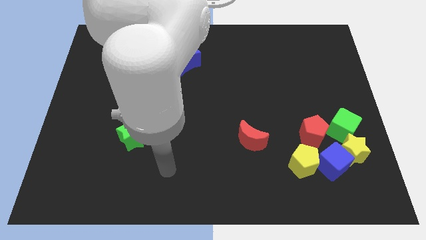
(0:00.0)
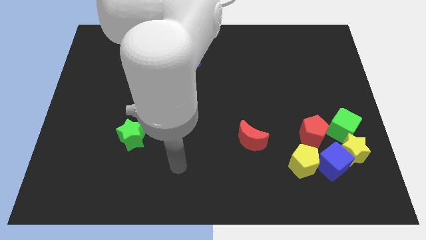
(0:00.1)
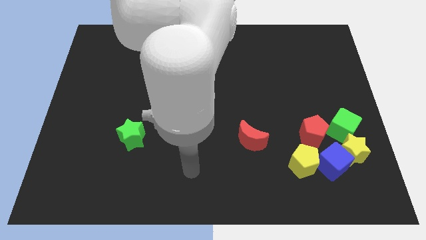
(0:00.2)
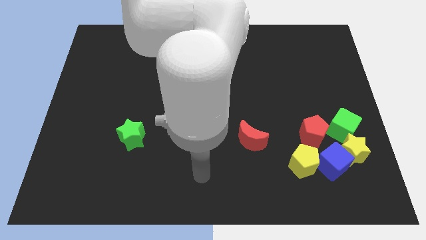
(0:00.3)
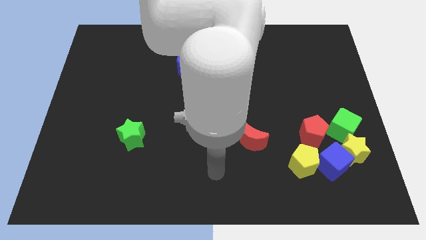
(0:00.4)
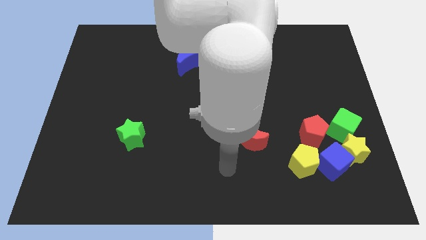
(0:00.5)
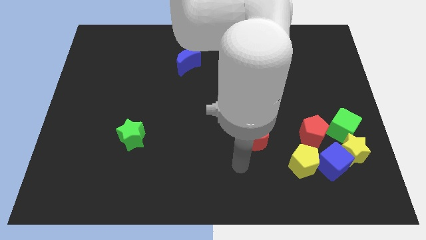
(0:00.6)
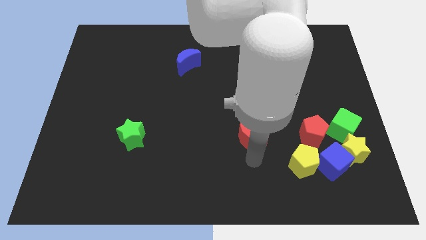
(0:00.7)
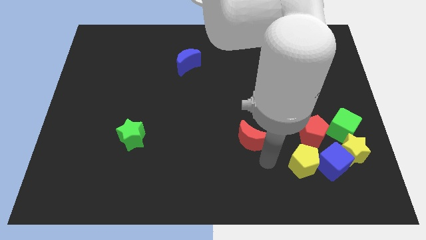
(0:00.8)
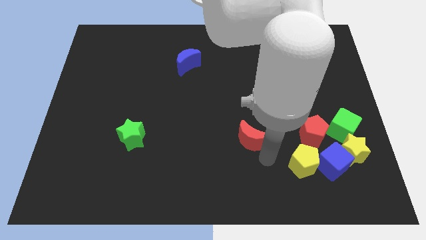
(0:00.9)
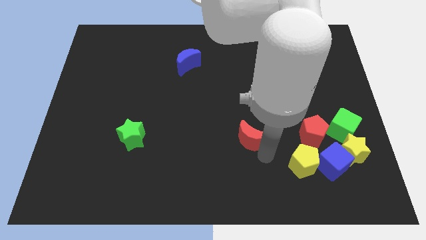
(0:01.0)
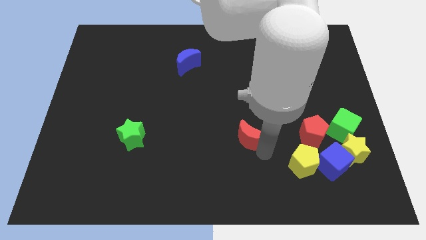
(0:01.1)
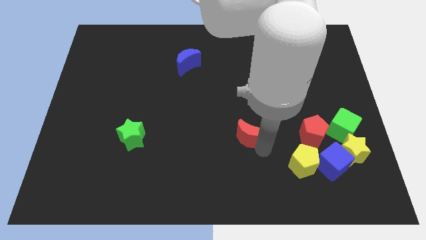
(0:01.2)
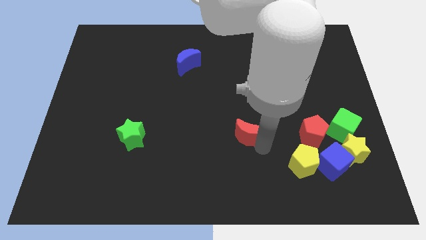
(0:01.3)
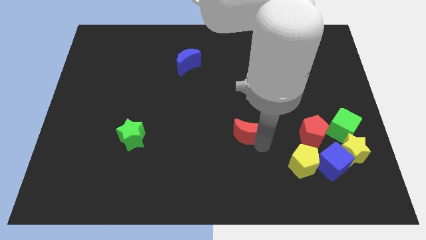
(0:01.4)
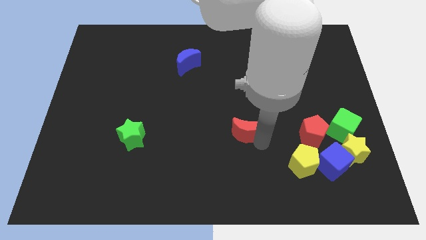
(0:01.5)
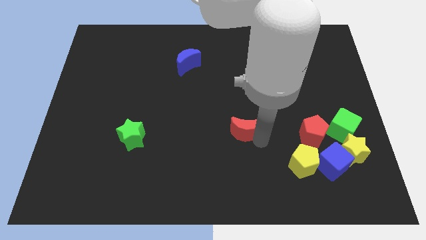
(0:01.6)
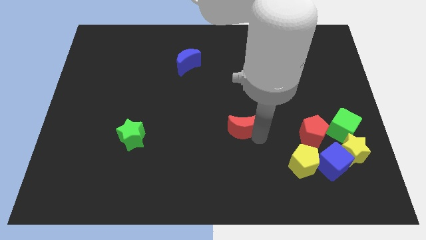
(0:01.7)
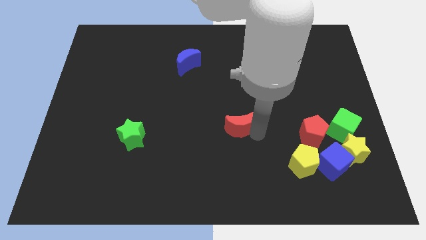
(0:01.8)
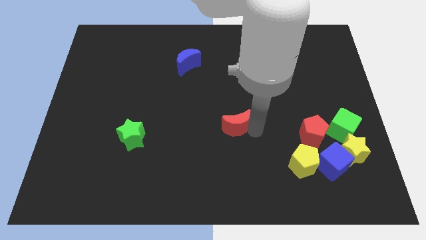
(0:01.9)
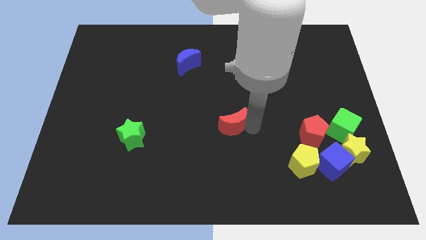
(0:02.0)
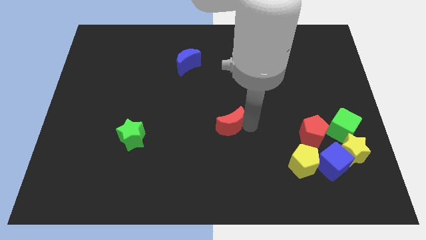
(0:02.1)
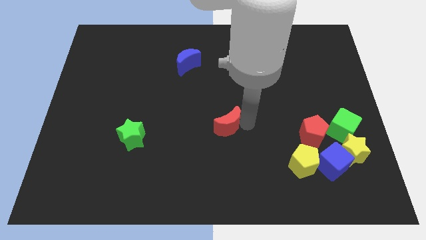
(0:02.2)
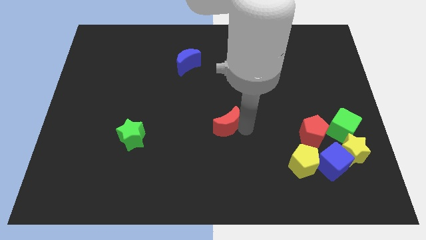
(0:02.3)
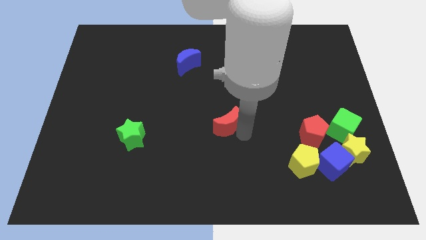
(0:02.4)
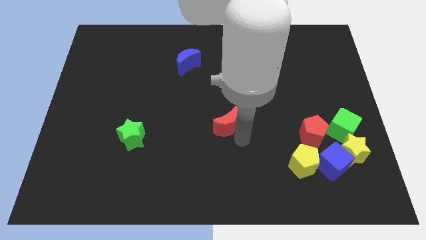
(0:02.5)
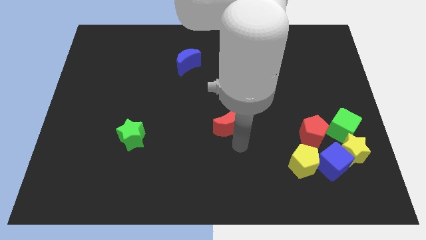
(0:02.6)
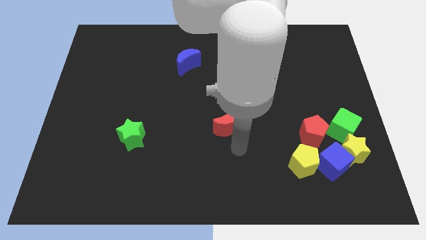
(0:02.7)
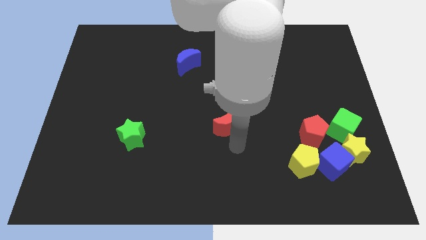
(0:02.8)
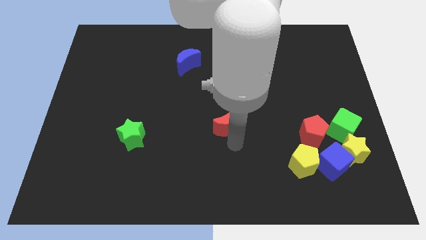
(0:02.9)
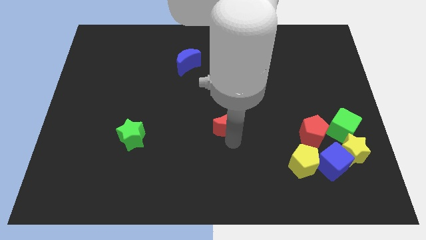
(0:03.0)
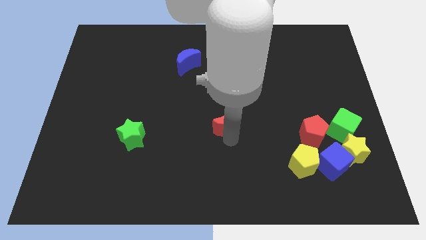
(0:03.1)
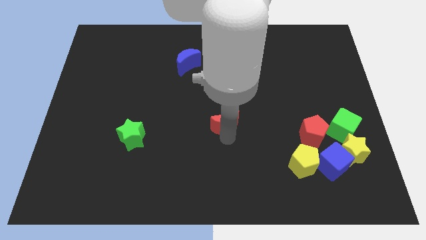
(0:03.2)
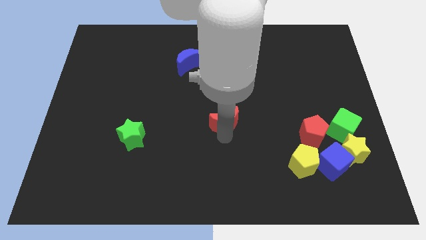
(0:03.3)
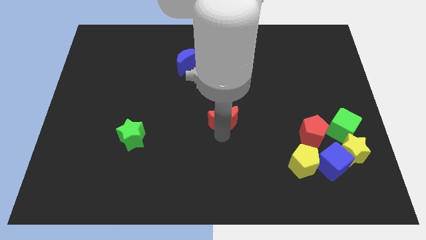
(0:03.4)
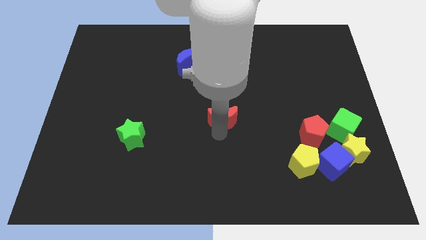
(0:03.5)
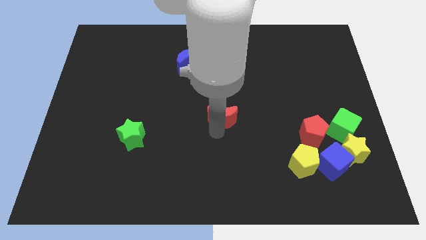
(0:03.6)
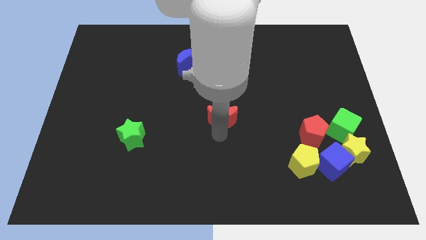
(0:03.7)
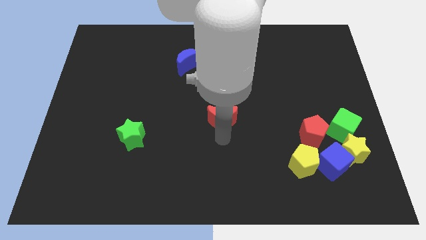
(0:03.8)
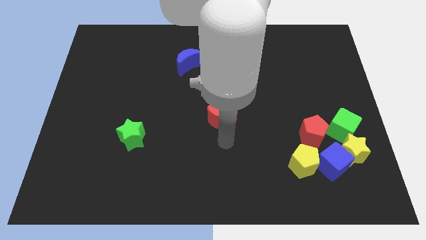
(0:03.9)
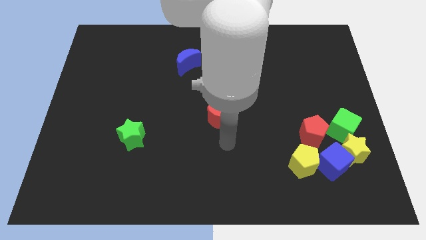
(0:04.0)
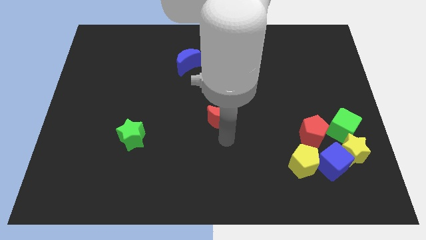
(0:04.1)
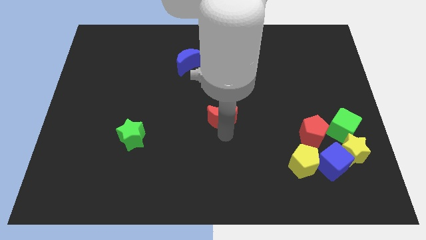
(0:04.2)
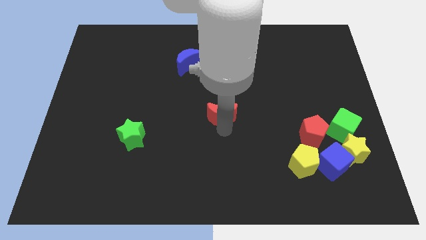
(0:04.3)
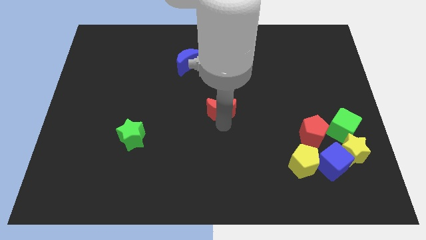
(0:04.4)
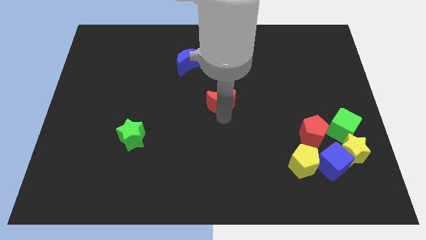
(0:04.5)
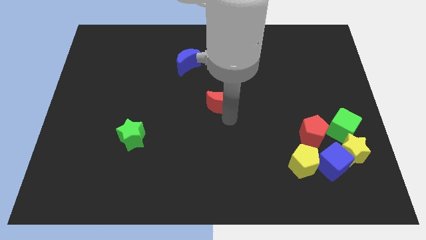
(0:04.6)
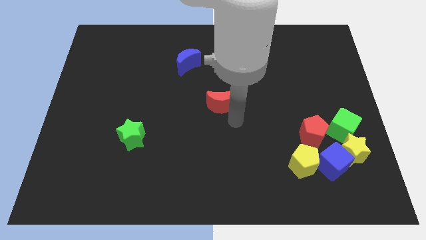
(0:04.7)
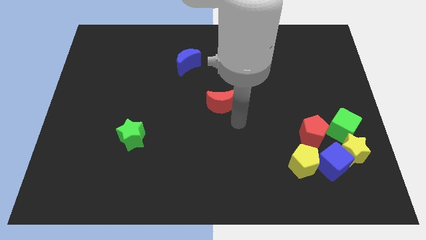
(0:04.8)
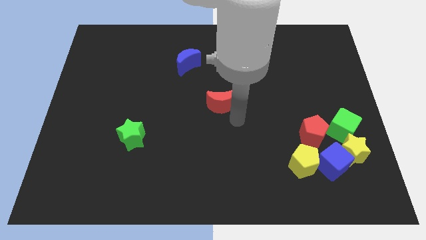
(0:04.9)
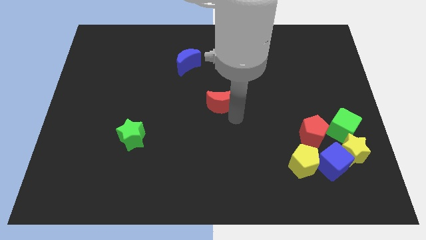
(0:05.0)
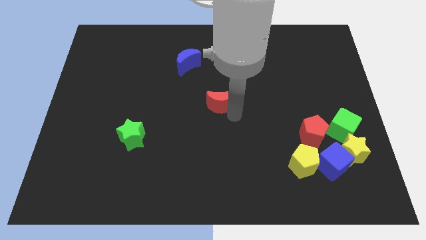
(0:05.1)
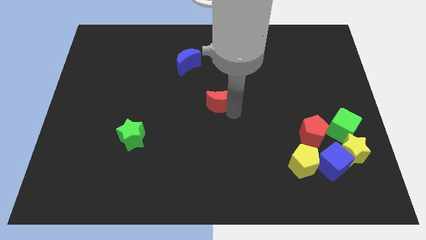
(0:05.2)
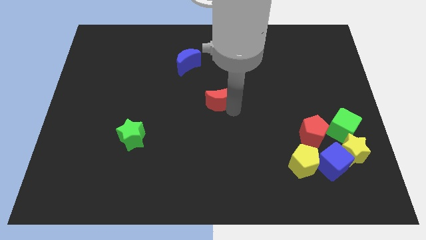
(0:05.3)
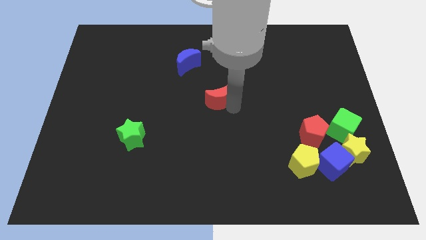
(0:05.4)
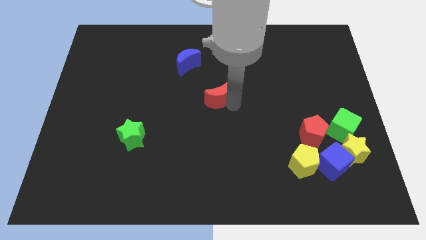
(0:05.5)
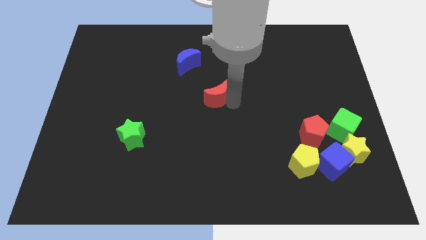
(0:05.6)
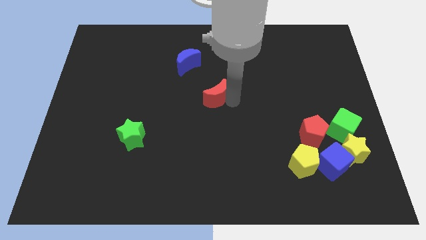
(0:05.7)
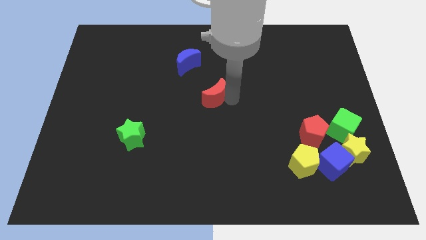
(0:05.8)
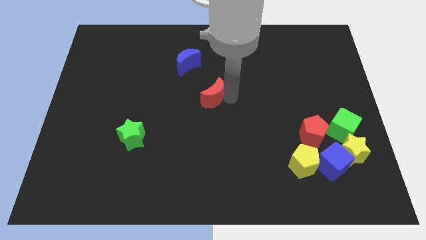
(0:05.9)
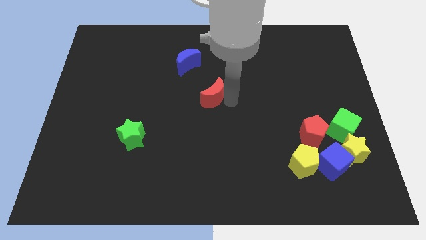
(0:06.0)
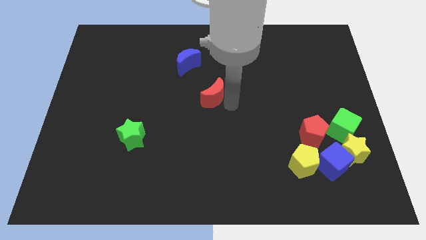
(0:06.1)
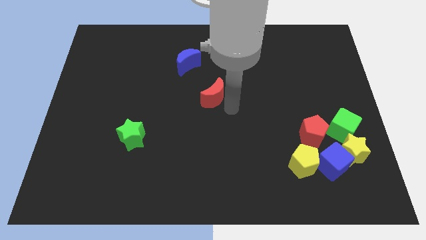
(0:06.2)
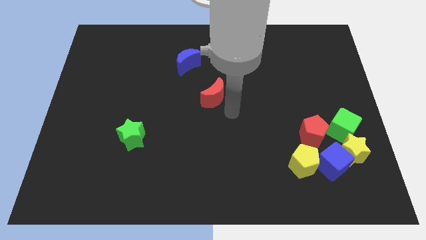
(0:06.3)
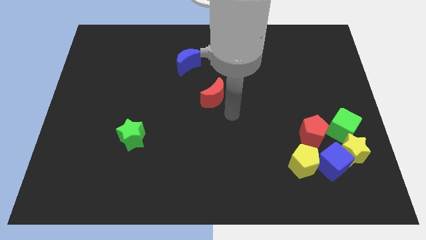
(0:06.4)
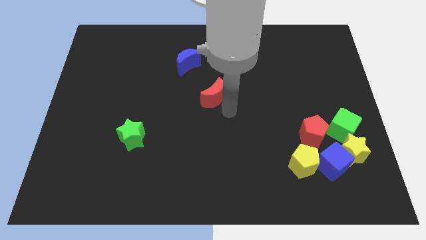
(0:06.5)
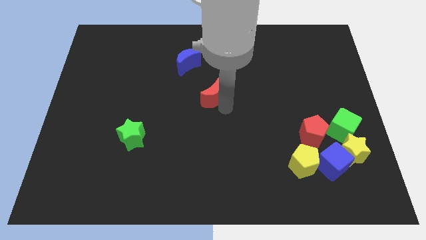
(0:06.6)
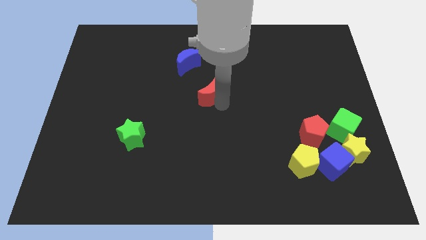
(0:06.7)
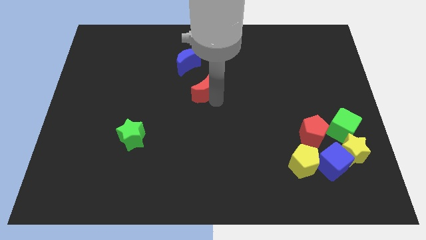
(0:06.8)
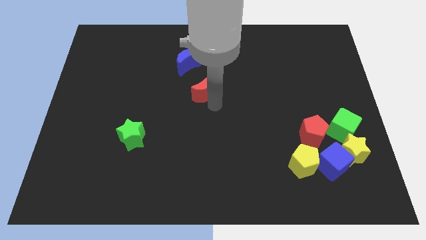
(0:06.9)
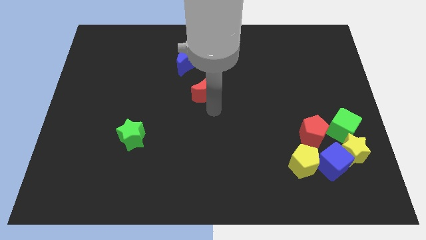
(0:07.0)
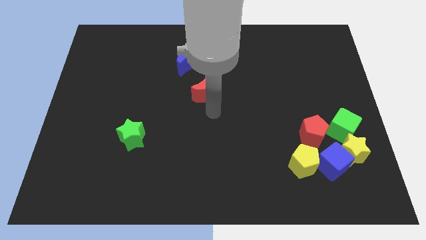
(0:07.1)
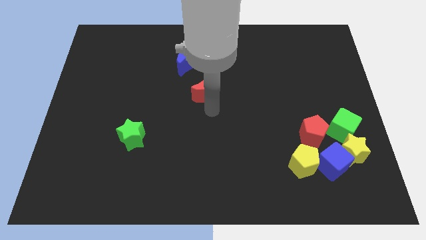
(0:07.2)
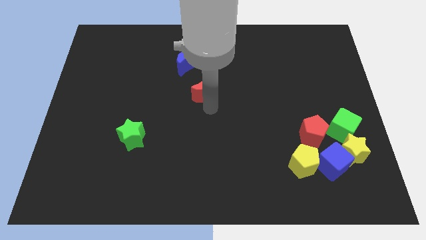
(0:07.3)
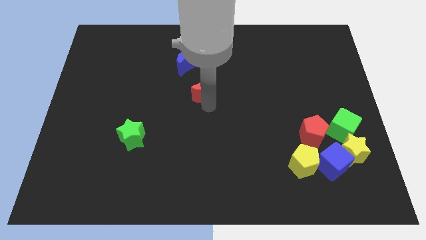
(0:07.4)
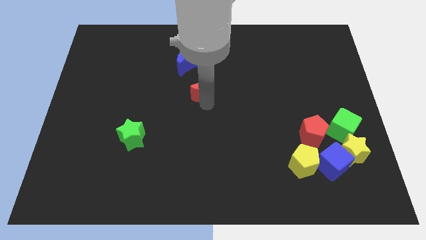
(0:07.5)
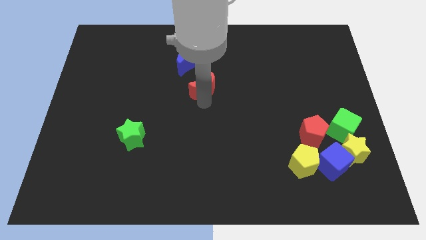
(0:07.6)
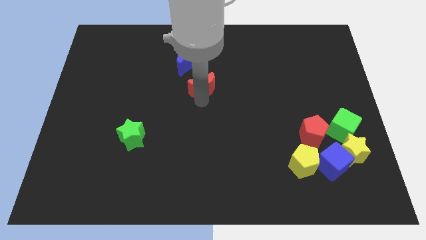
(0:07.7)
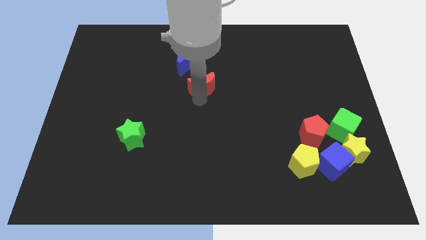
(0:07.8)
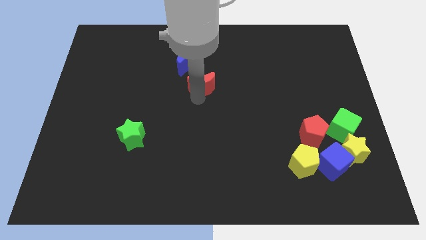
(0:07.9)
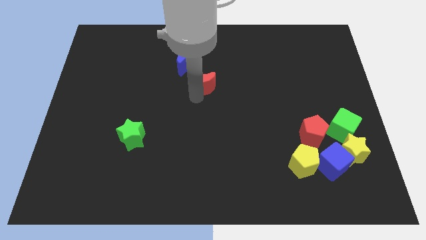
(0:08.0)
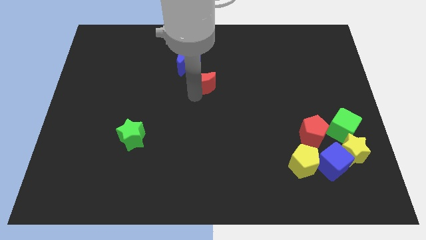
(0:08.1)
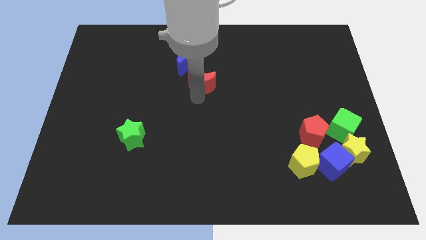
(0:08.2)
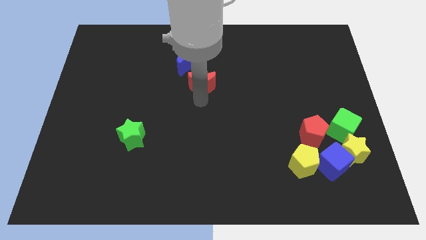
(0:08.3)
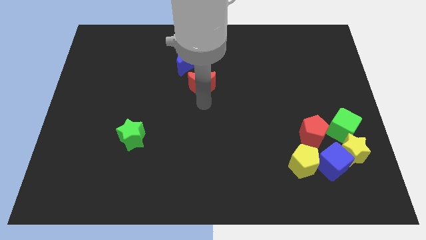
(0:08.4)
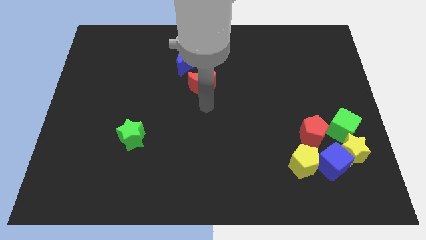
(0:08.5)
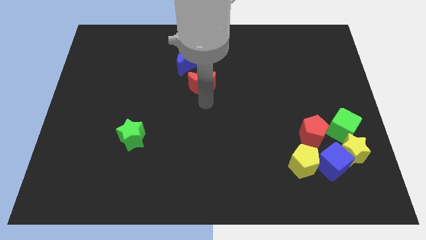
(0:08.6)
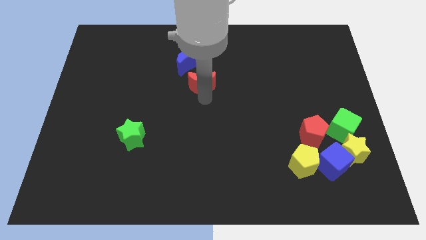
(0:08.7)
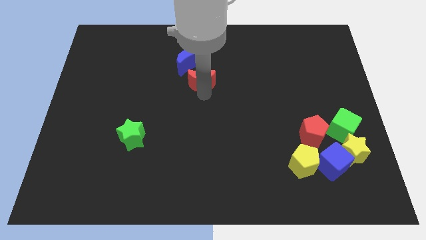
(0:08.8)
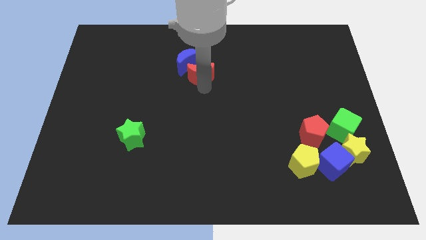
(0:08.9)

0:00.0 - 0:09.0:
push the red moon next to the blue moon
